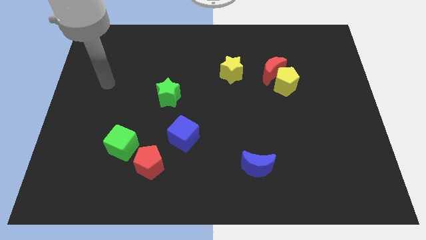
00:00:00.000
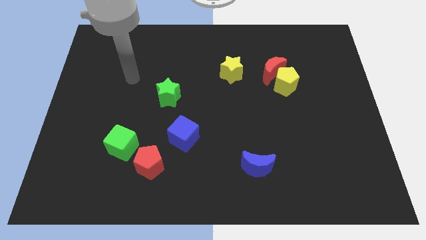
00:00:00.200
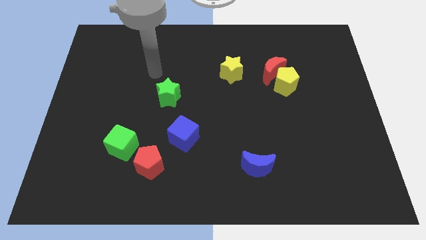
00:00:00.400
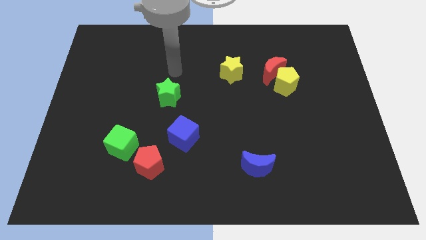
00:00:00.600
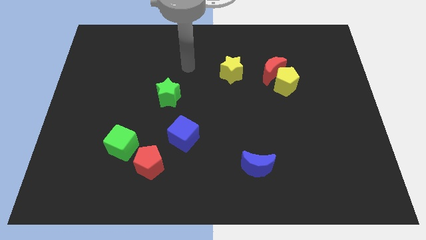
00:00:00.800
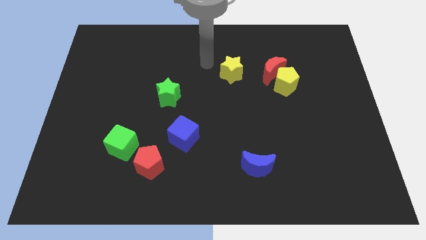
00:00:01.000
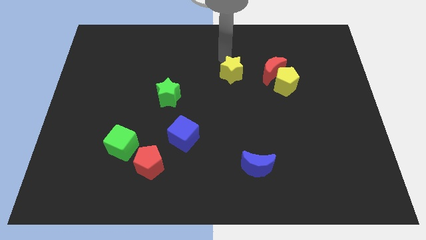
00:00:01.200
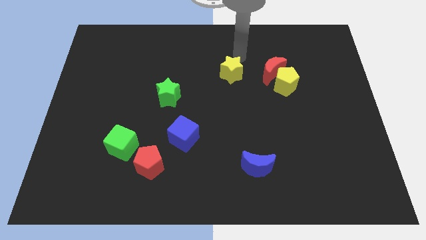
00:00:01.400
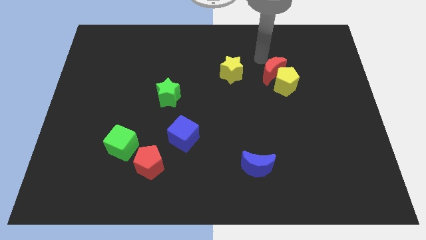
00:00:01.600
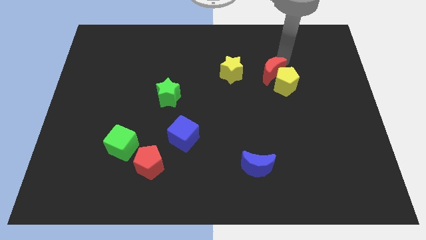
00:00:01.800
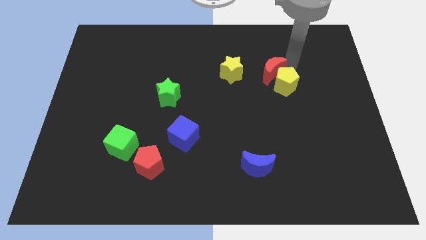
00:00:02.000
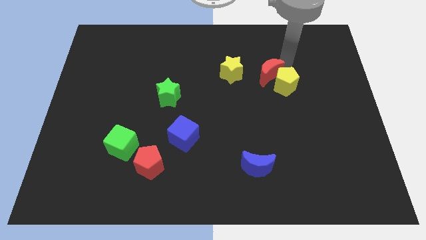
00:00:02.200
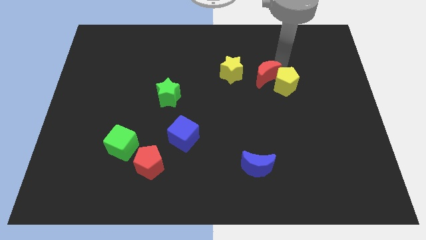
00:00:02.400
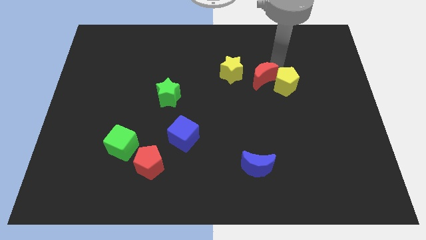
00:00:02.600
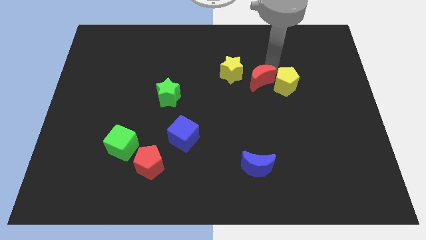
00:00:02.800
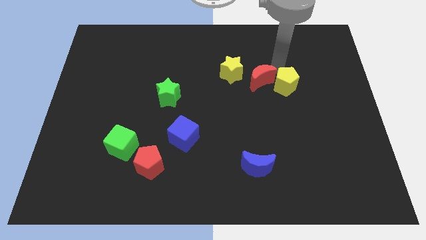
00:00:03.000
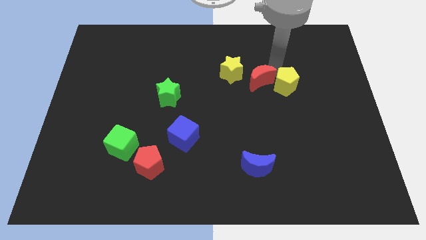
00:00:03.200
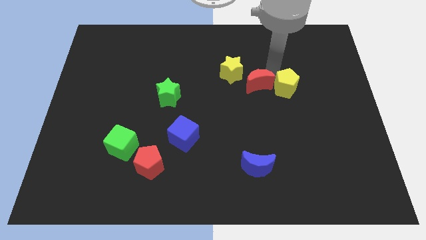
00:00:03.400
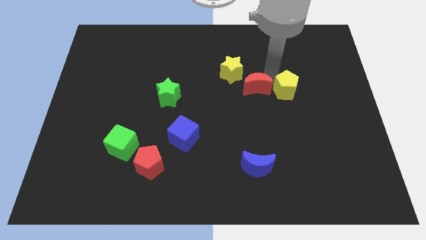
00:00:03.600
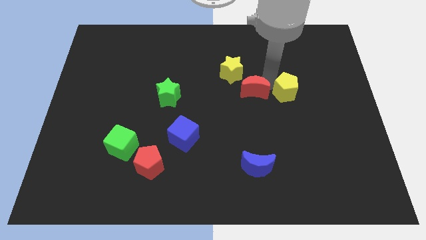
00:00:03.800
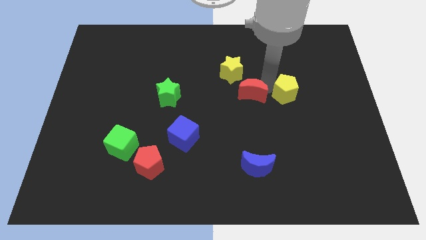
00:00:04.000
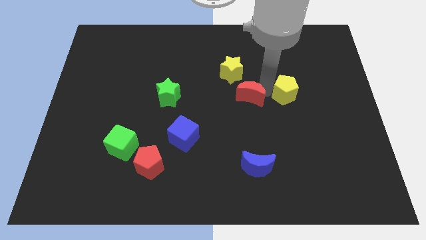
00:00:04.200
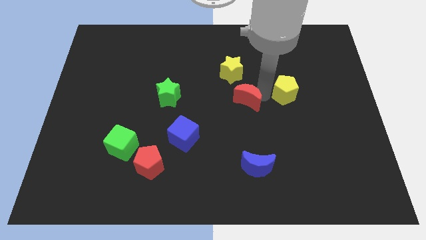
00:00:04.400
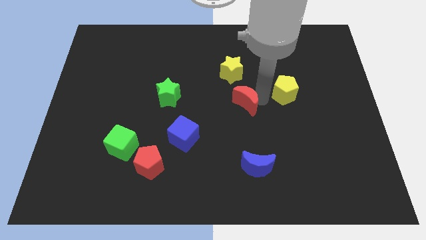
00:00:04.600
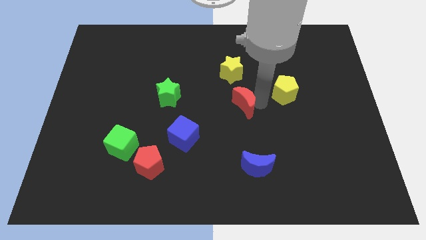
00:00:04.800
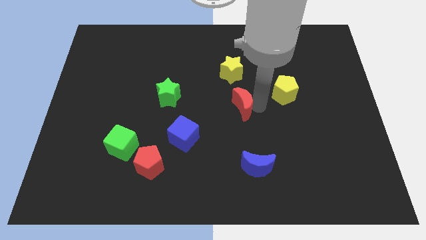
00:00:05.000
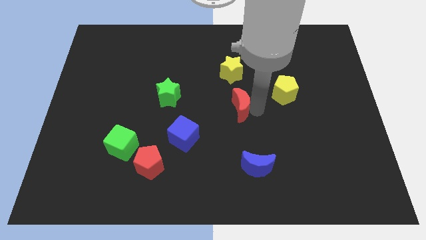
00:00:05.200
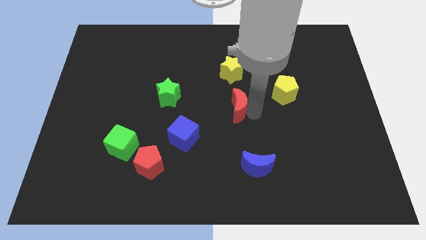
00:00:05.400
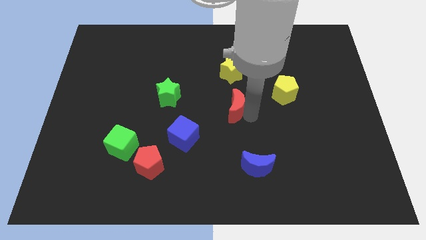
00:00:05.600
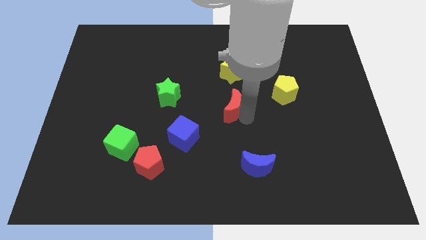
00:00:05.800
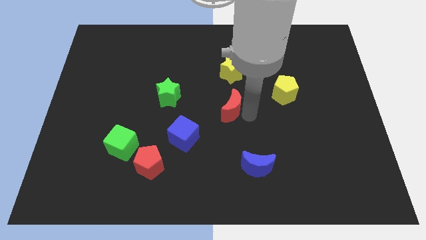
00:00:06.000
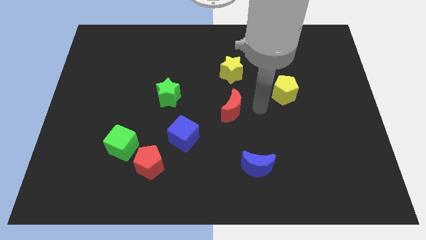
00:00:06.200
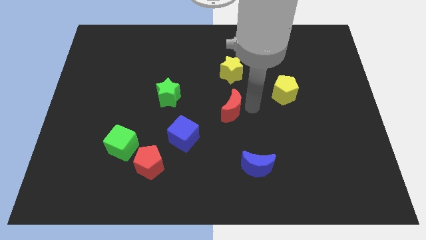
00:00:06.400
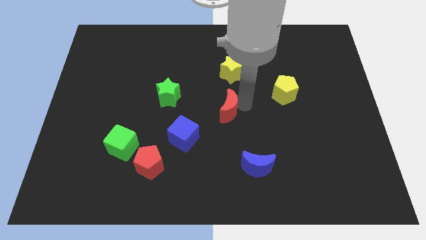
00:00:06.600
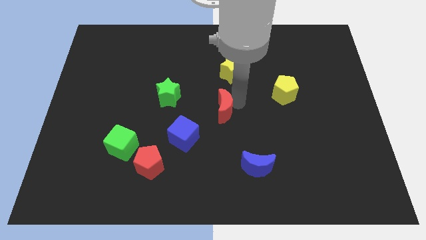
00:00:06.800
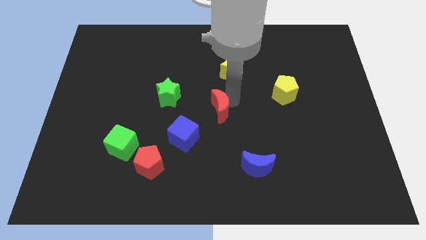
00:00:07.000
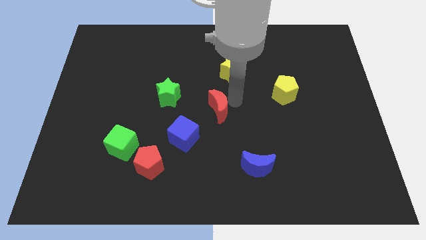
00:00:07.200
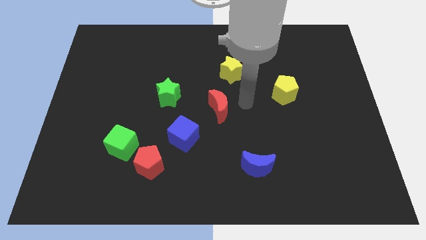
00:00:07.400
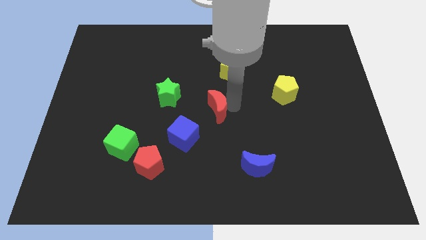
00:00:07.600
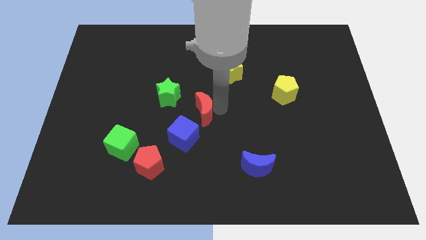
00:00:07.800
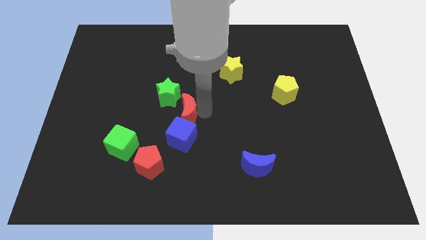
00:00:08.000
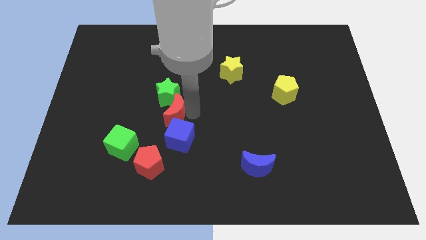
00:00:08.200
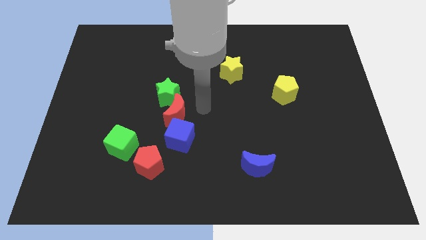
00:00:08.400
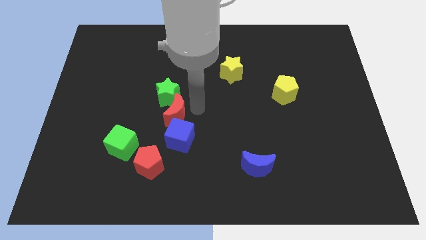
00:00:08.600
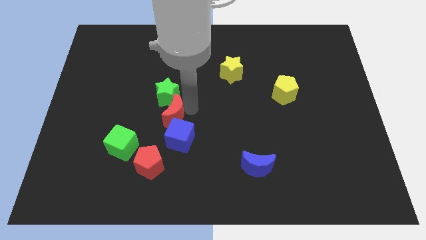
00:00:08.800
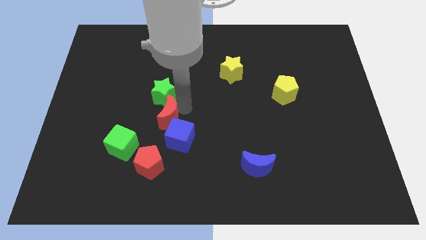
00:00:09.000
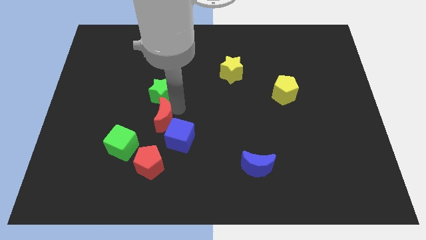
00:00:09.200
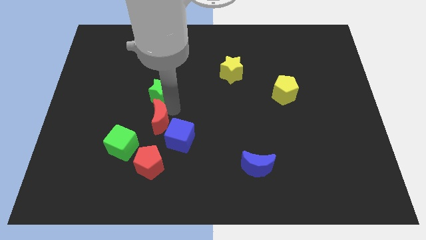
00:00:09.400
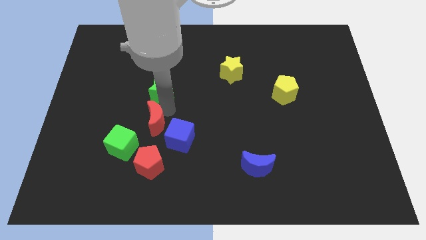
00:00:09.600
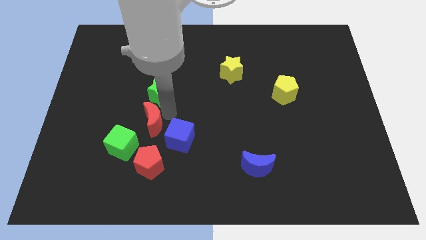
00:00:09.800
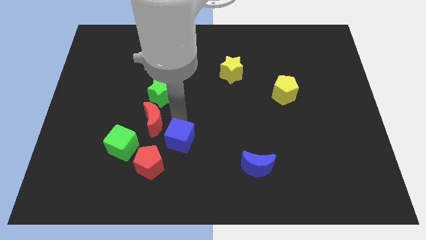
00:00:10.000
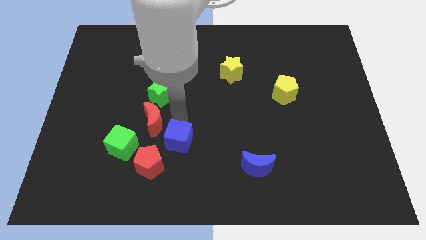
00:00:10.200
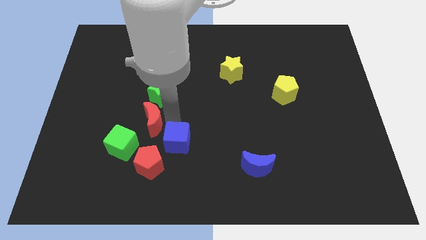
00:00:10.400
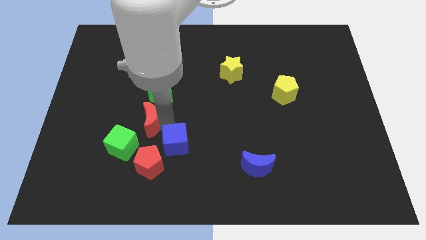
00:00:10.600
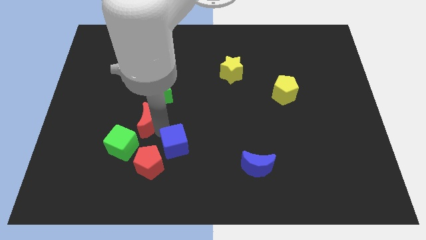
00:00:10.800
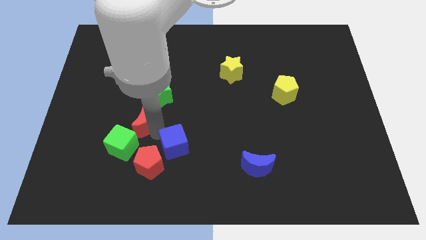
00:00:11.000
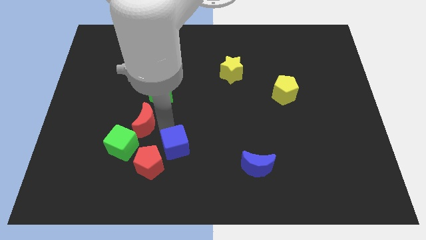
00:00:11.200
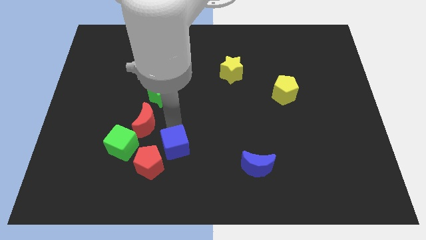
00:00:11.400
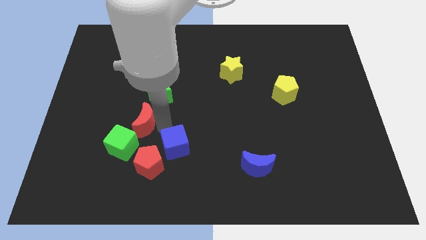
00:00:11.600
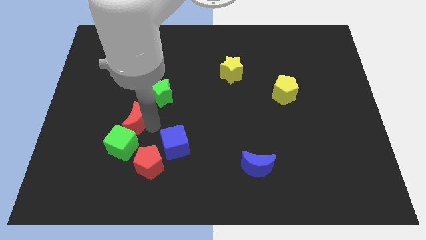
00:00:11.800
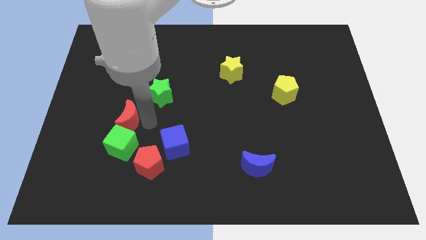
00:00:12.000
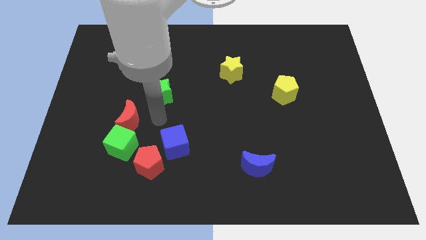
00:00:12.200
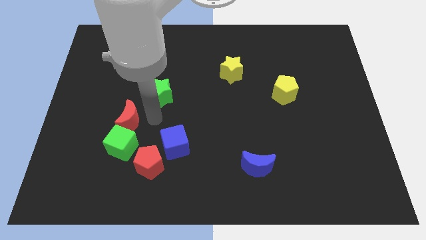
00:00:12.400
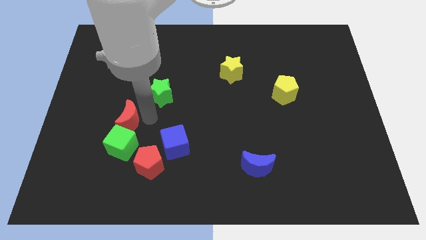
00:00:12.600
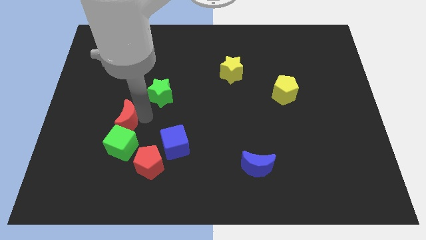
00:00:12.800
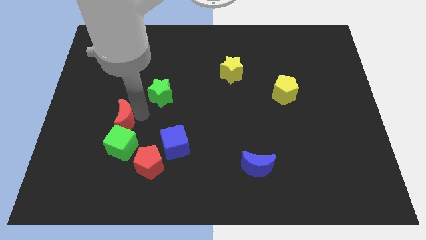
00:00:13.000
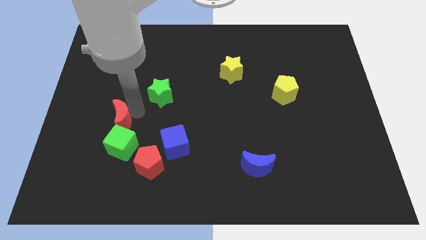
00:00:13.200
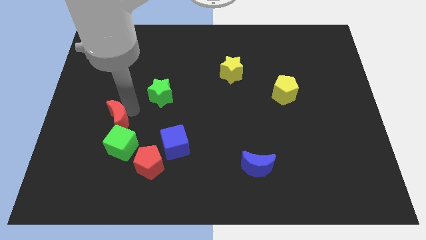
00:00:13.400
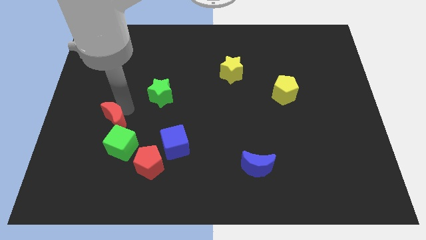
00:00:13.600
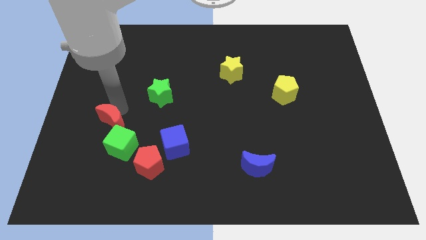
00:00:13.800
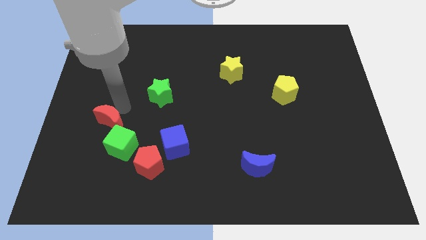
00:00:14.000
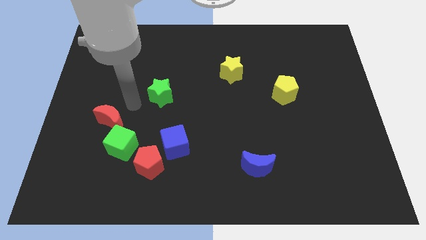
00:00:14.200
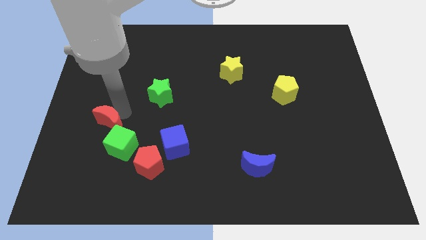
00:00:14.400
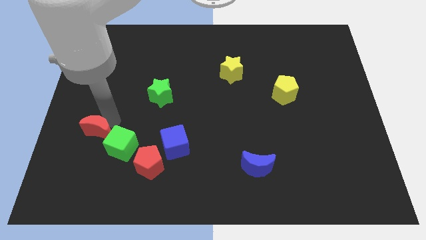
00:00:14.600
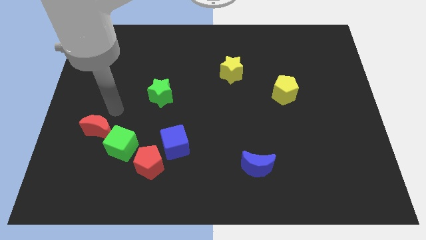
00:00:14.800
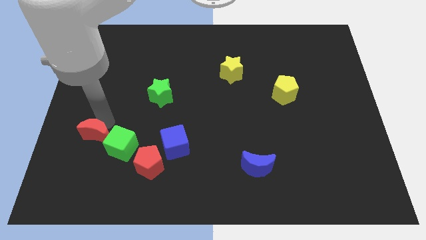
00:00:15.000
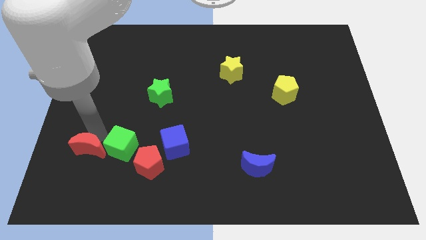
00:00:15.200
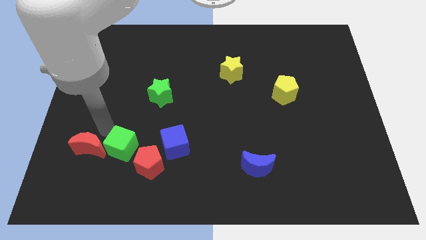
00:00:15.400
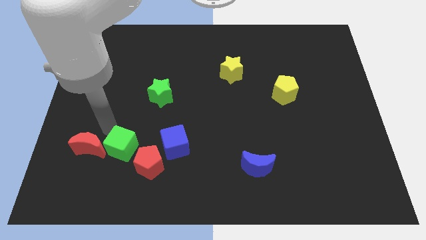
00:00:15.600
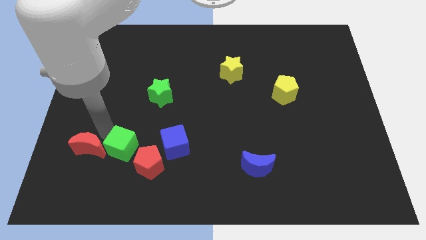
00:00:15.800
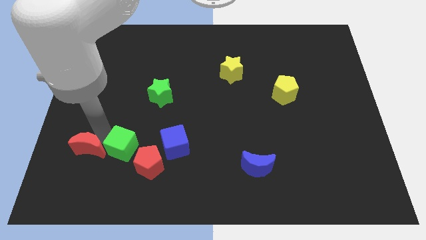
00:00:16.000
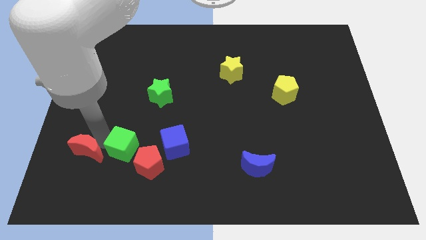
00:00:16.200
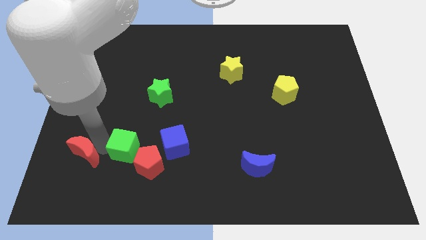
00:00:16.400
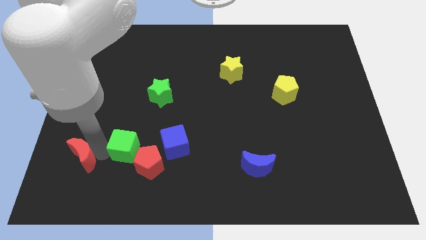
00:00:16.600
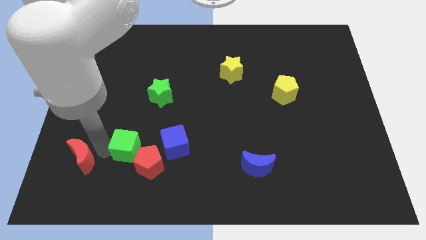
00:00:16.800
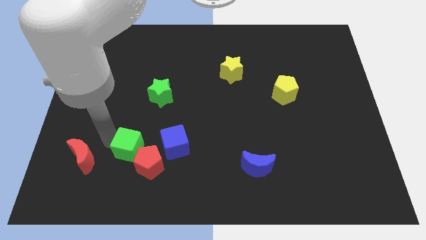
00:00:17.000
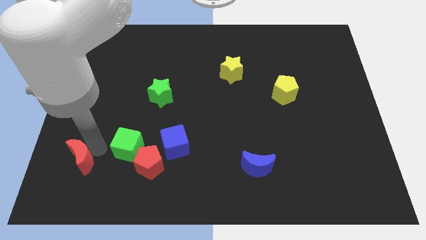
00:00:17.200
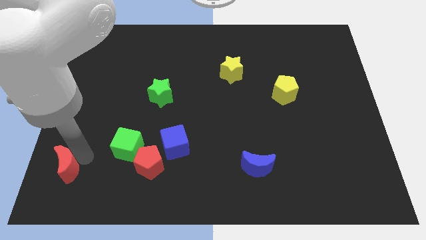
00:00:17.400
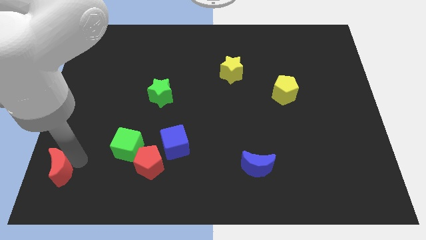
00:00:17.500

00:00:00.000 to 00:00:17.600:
move the red moon to the bottom left corner
